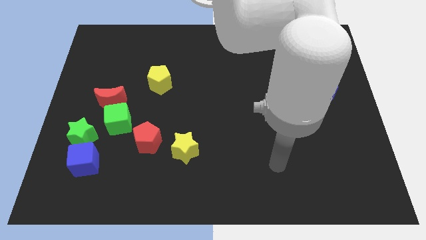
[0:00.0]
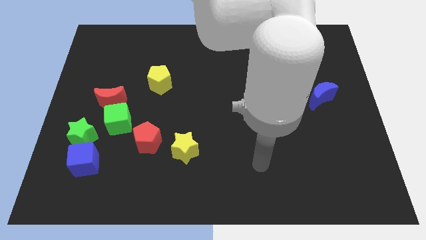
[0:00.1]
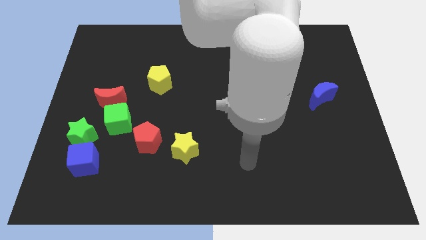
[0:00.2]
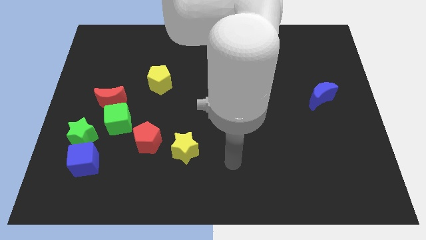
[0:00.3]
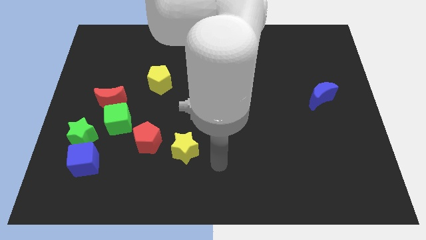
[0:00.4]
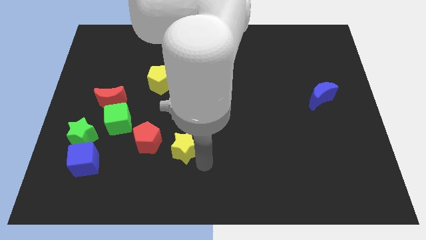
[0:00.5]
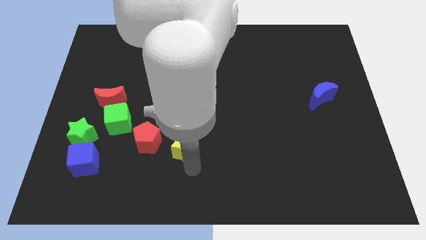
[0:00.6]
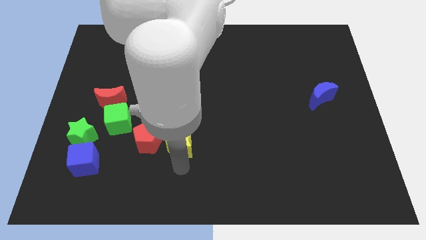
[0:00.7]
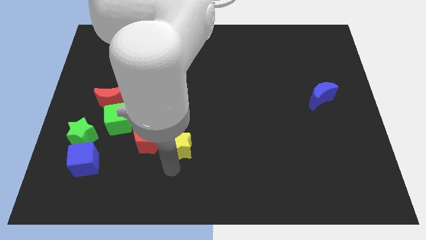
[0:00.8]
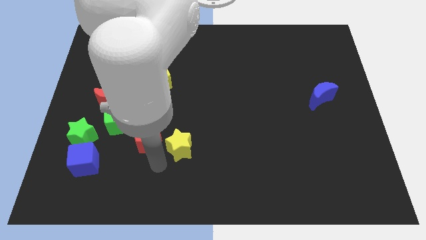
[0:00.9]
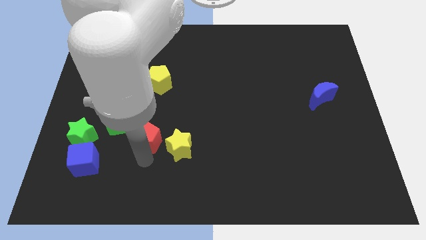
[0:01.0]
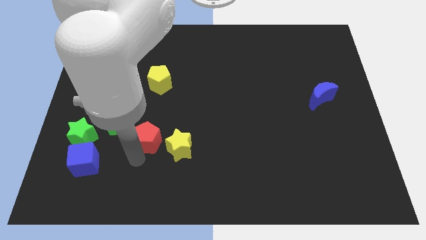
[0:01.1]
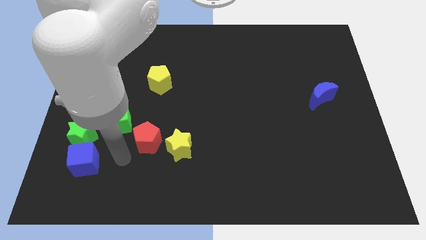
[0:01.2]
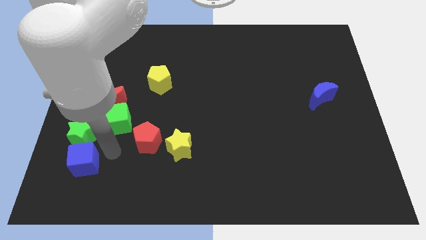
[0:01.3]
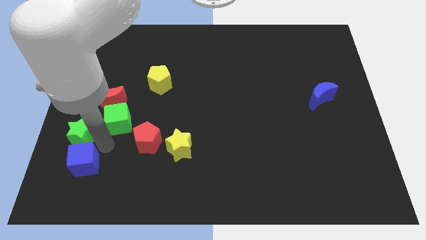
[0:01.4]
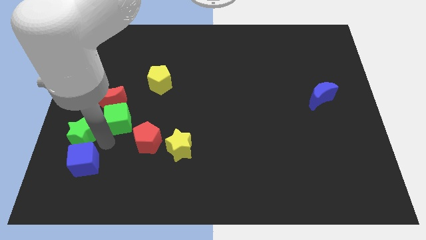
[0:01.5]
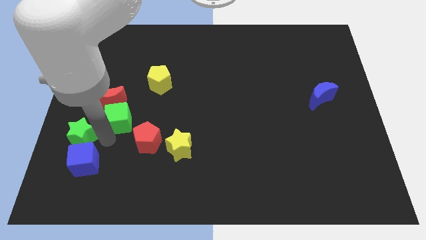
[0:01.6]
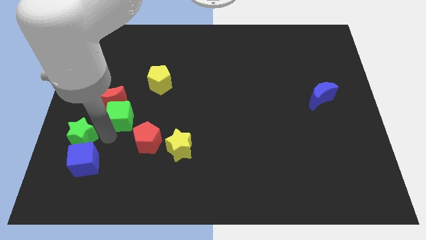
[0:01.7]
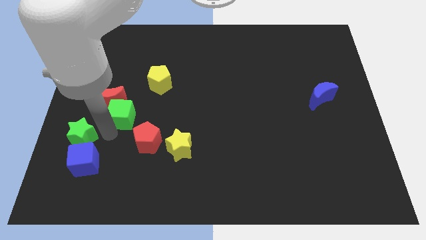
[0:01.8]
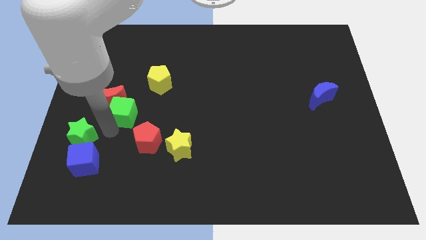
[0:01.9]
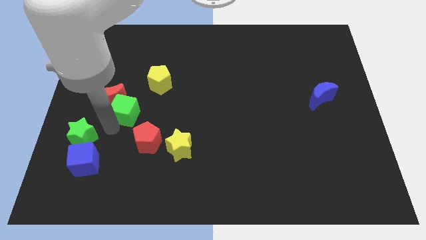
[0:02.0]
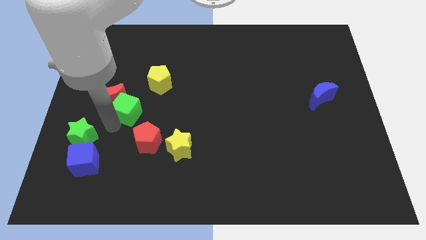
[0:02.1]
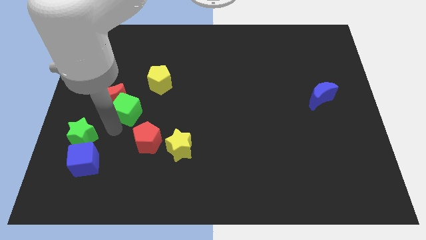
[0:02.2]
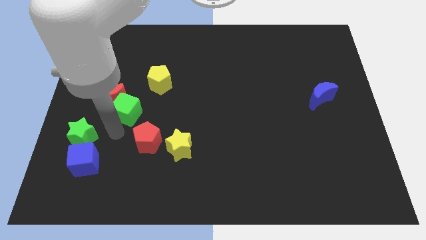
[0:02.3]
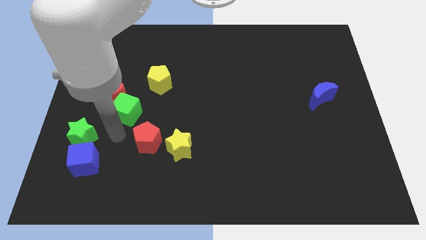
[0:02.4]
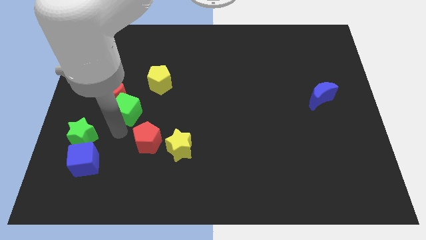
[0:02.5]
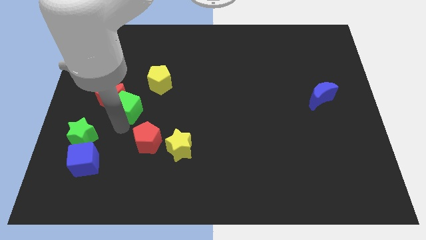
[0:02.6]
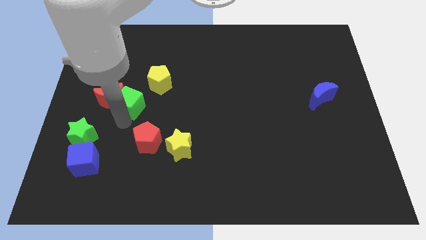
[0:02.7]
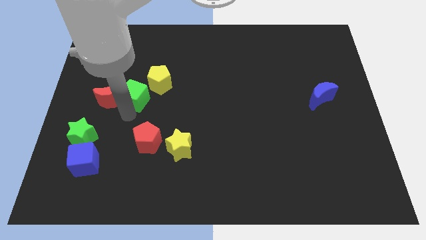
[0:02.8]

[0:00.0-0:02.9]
slide the green cube upwards a bit

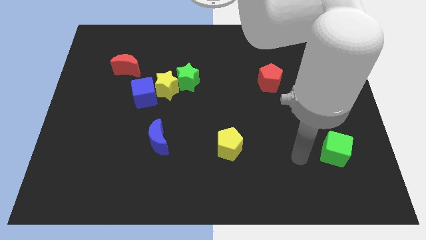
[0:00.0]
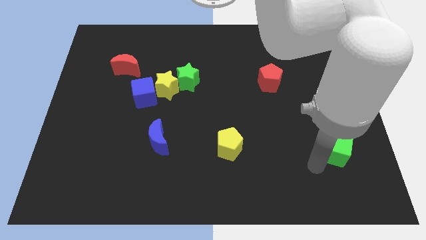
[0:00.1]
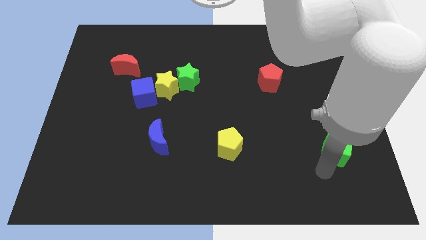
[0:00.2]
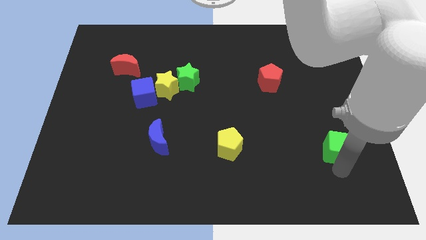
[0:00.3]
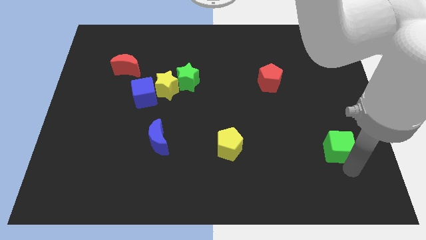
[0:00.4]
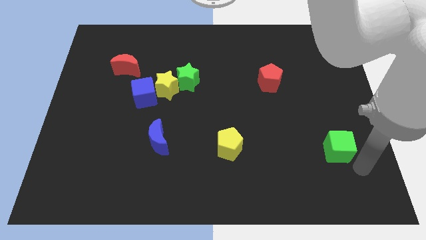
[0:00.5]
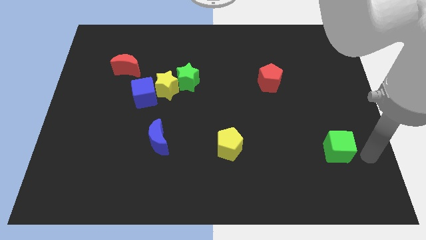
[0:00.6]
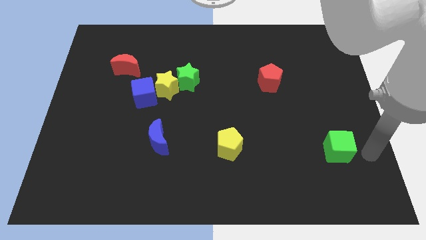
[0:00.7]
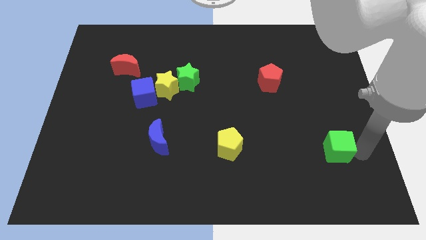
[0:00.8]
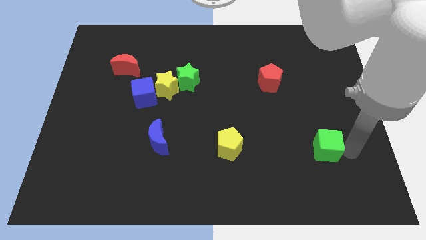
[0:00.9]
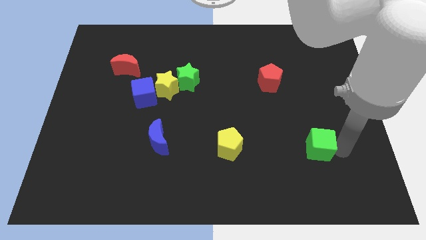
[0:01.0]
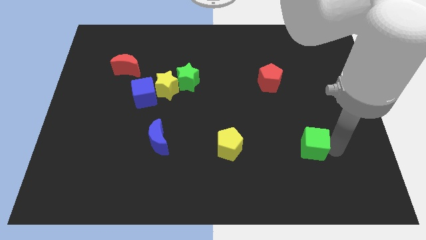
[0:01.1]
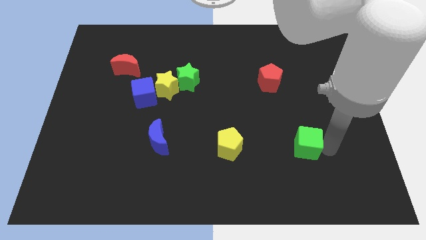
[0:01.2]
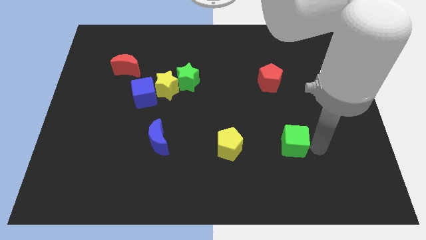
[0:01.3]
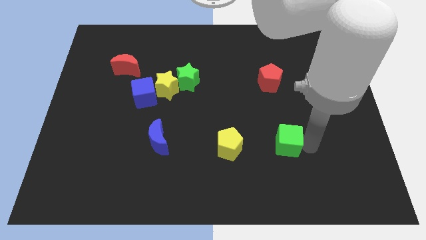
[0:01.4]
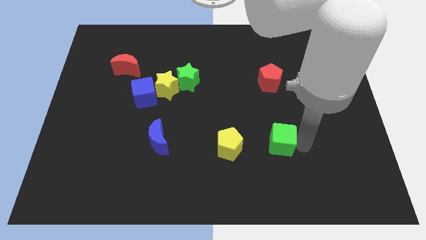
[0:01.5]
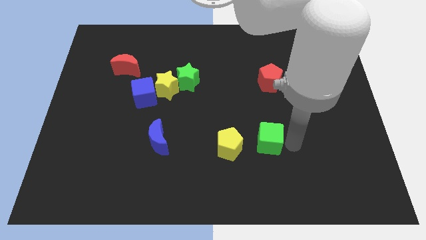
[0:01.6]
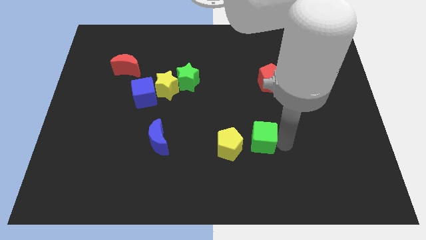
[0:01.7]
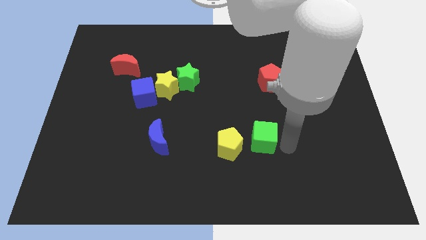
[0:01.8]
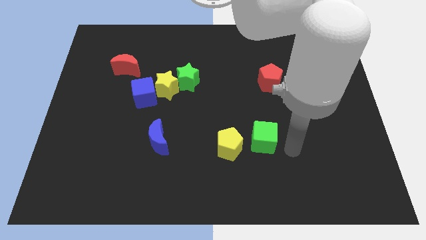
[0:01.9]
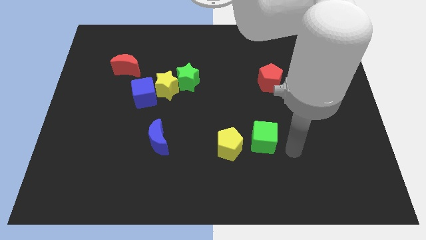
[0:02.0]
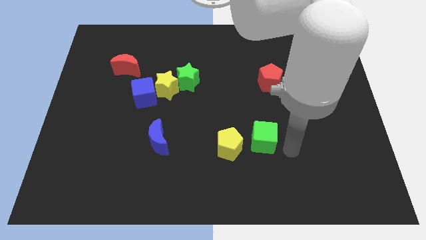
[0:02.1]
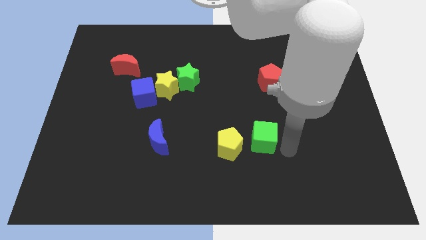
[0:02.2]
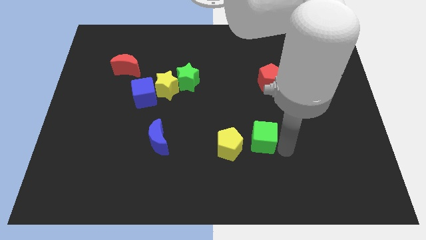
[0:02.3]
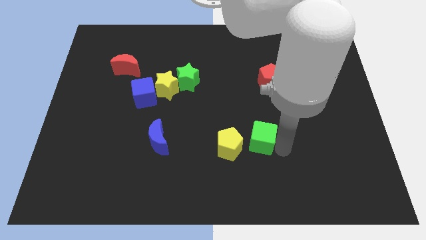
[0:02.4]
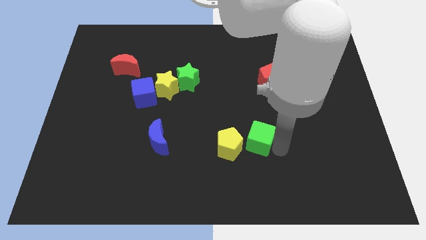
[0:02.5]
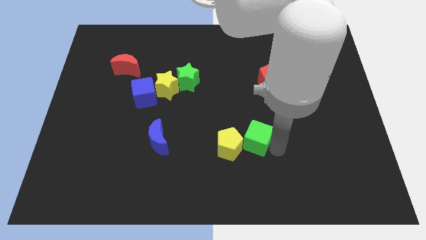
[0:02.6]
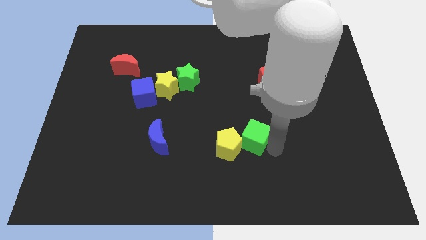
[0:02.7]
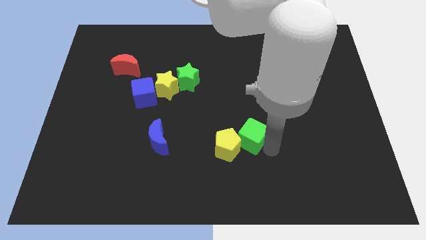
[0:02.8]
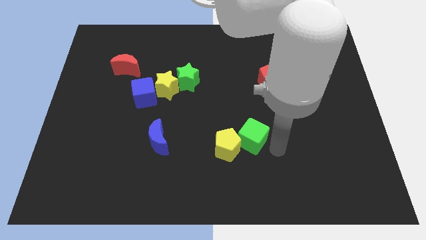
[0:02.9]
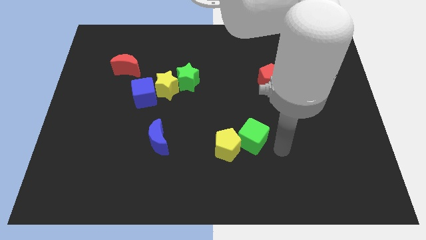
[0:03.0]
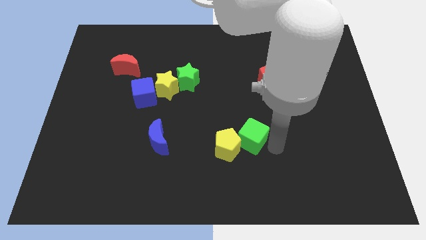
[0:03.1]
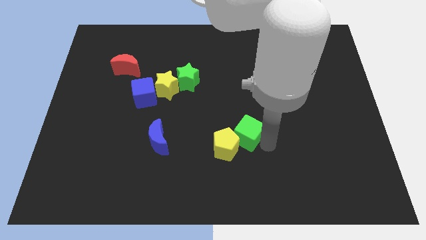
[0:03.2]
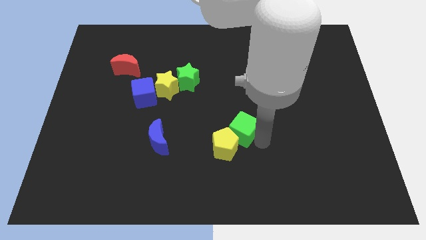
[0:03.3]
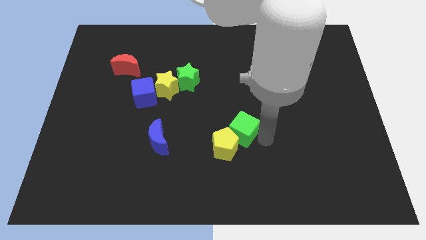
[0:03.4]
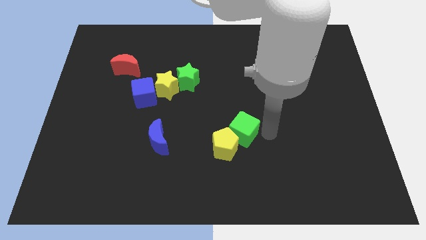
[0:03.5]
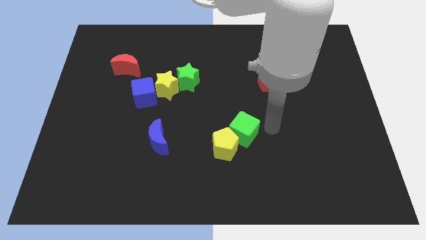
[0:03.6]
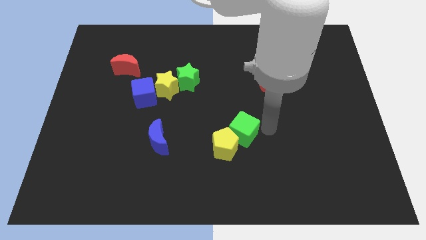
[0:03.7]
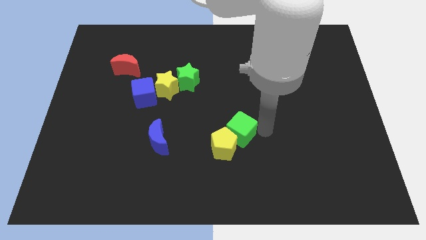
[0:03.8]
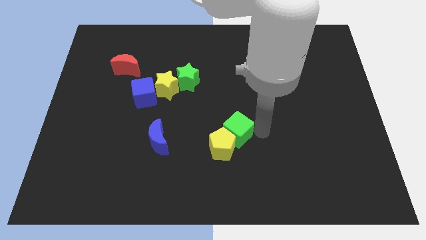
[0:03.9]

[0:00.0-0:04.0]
push the green cube to the left

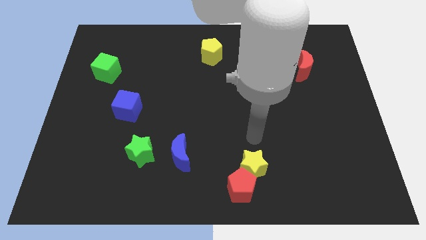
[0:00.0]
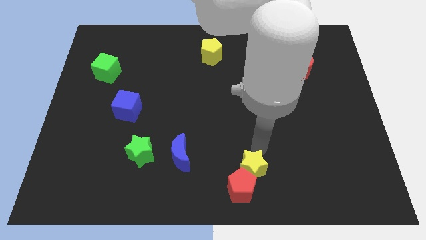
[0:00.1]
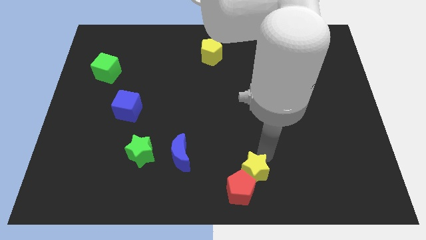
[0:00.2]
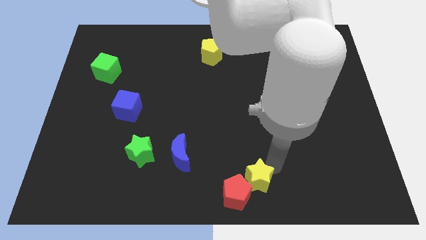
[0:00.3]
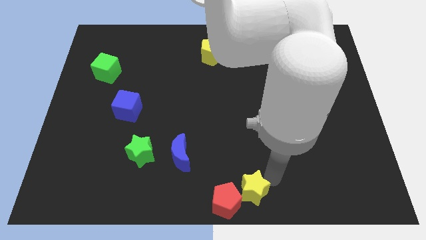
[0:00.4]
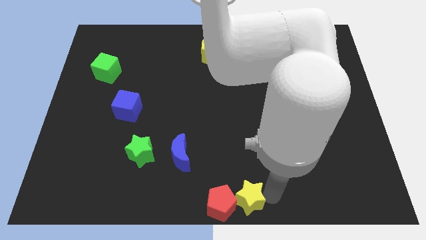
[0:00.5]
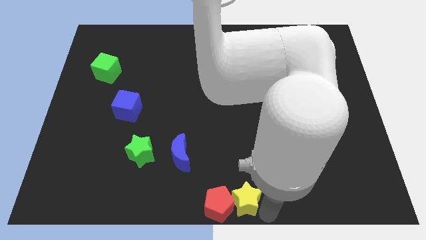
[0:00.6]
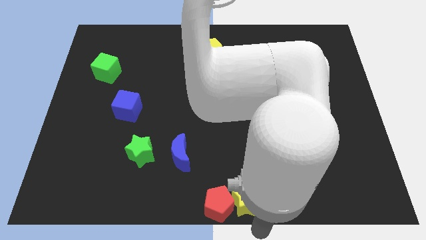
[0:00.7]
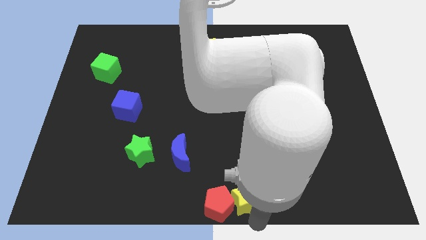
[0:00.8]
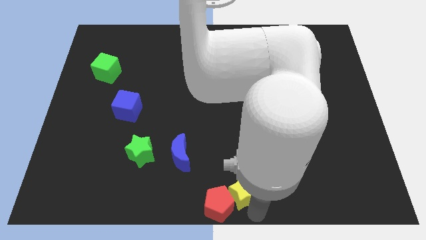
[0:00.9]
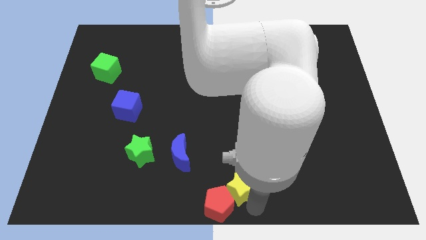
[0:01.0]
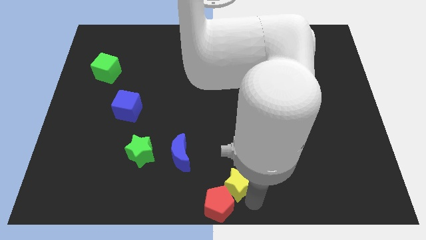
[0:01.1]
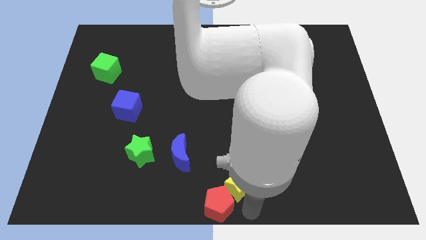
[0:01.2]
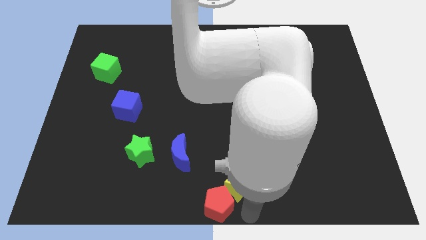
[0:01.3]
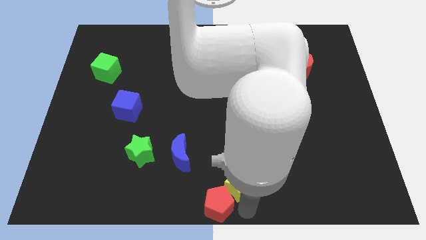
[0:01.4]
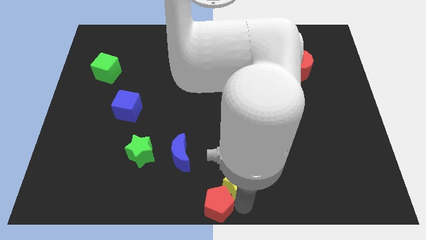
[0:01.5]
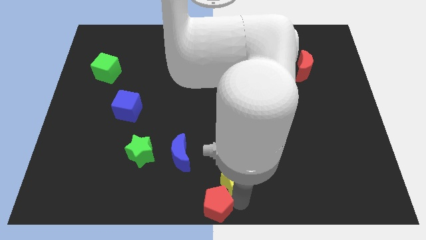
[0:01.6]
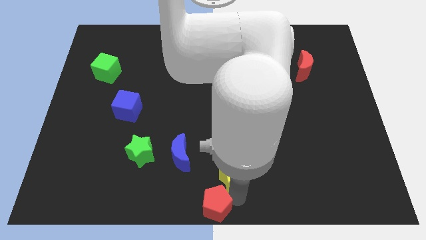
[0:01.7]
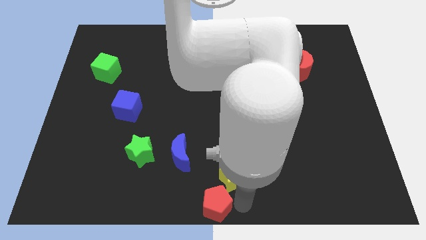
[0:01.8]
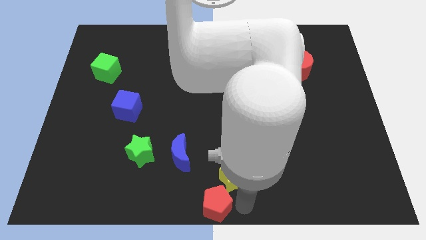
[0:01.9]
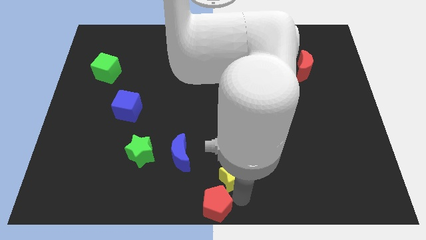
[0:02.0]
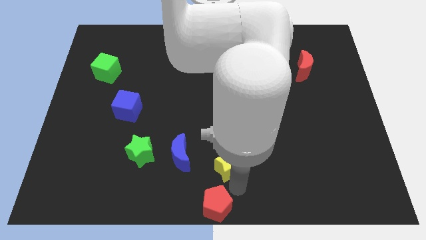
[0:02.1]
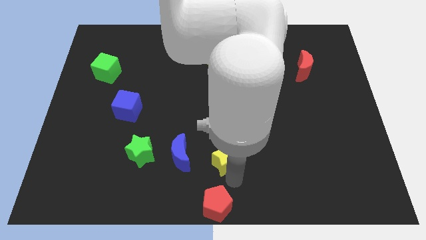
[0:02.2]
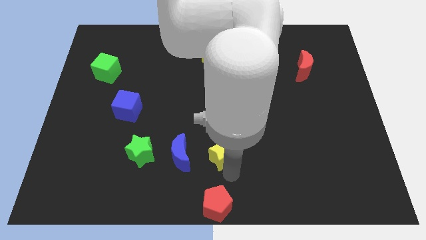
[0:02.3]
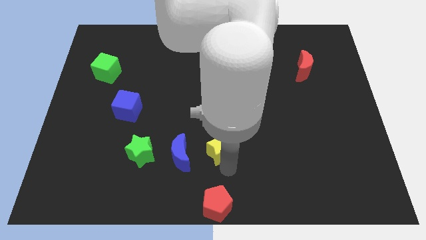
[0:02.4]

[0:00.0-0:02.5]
slide the yellow star slightly up and left
